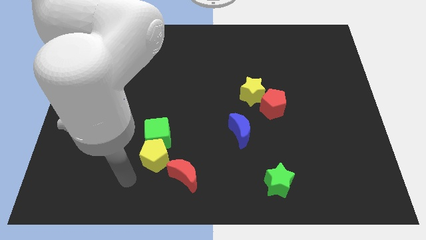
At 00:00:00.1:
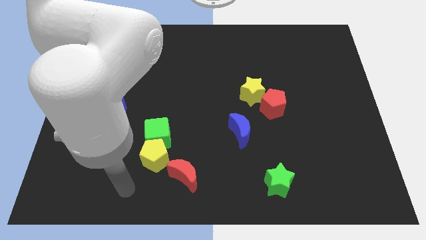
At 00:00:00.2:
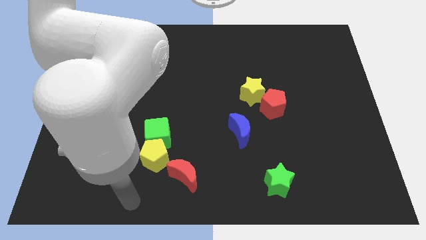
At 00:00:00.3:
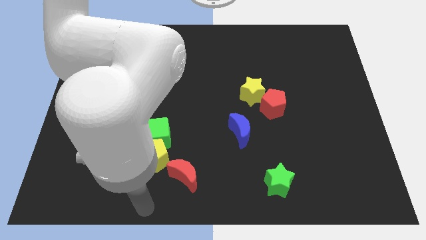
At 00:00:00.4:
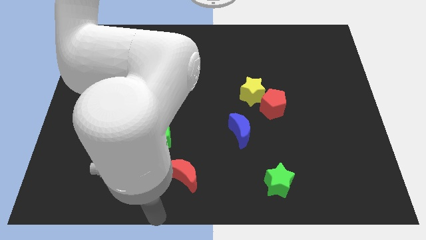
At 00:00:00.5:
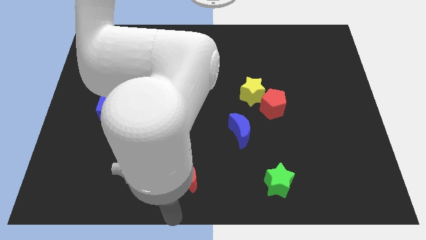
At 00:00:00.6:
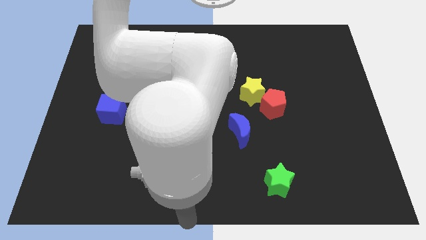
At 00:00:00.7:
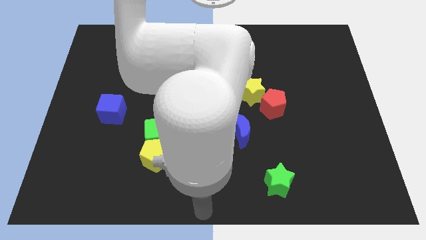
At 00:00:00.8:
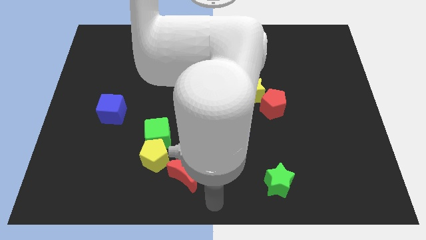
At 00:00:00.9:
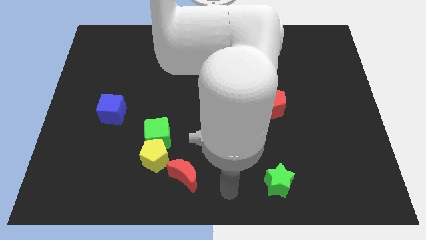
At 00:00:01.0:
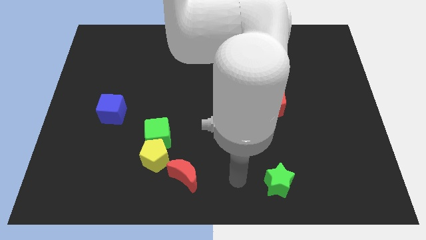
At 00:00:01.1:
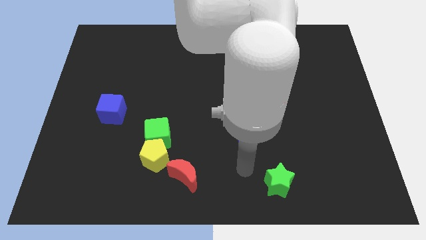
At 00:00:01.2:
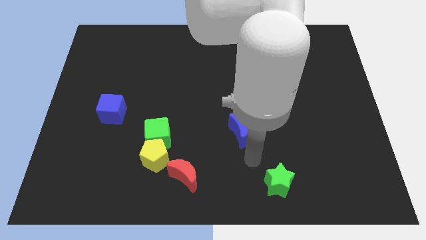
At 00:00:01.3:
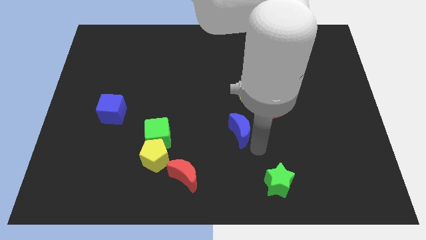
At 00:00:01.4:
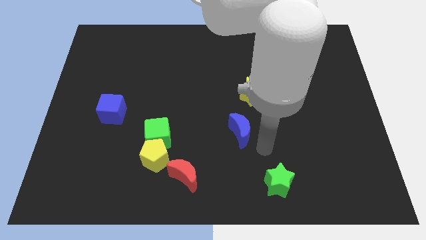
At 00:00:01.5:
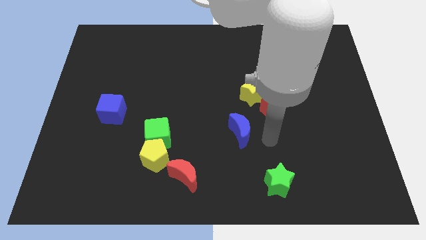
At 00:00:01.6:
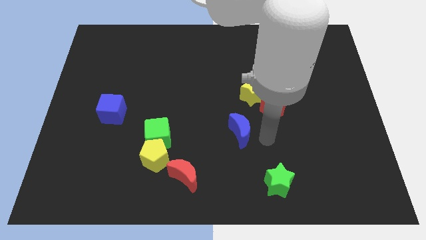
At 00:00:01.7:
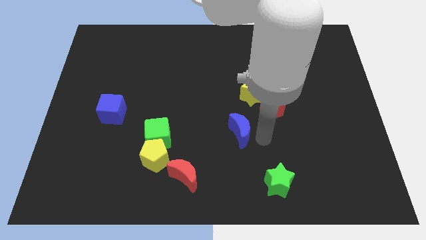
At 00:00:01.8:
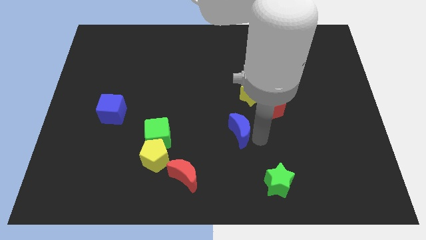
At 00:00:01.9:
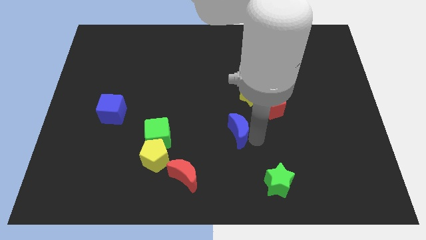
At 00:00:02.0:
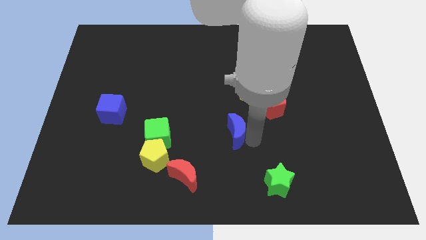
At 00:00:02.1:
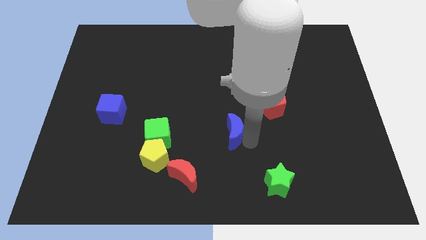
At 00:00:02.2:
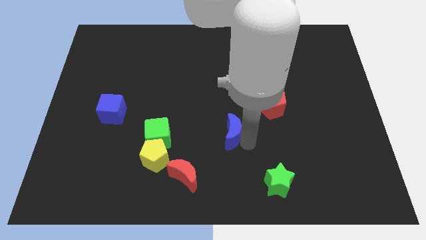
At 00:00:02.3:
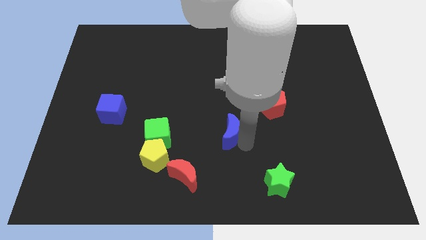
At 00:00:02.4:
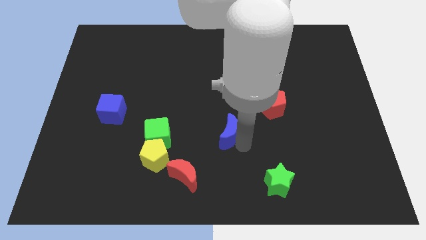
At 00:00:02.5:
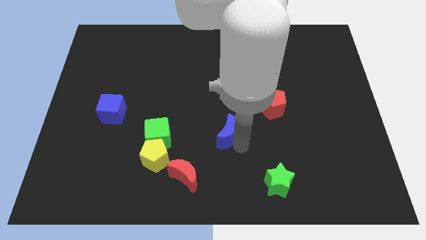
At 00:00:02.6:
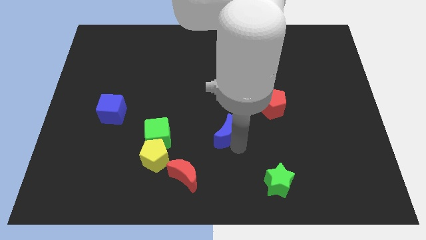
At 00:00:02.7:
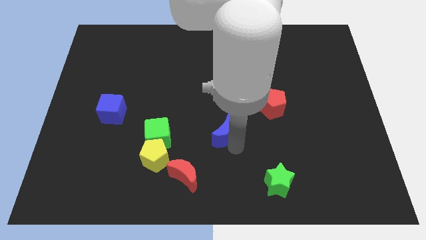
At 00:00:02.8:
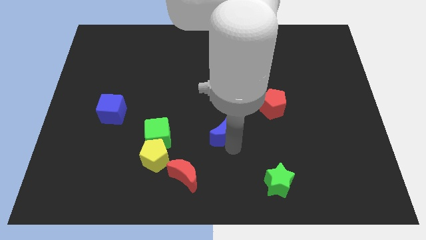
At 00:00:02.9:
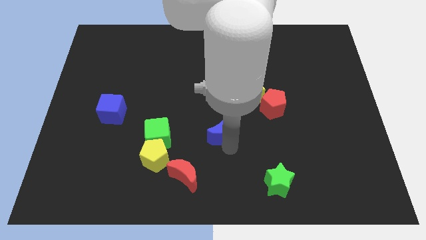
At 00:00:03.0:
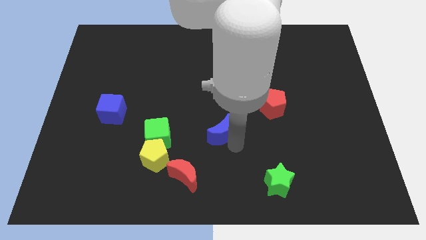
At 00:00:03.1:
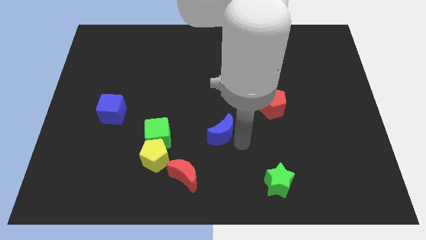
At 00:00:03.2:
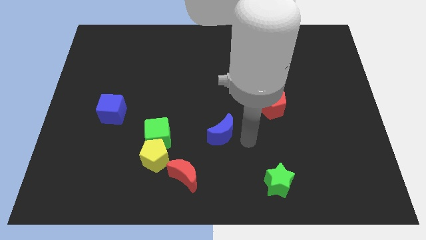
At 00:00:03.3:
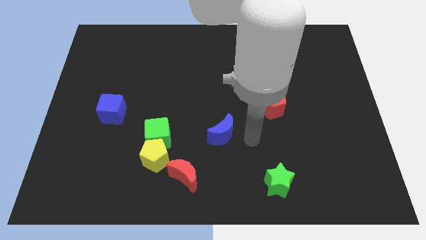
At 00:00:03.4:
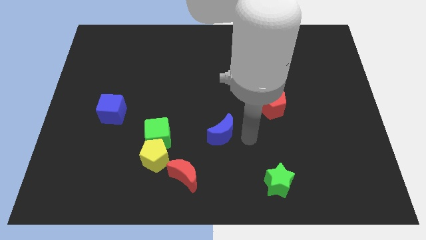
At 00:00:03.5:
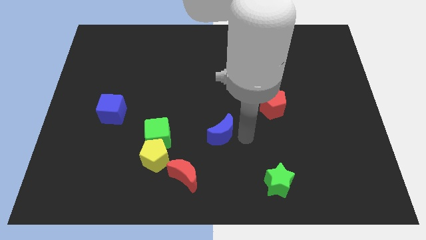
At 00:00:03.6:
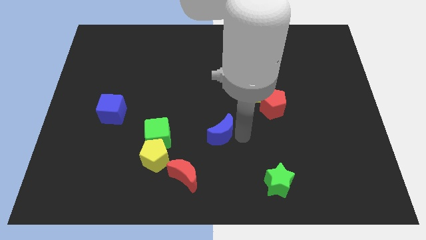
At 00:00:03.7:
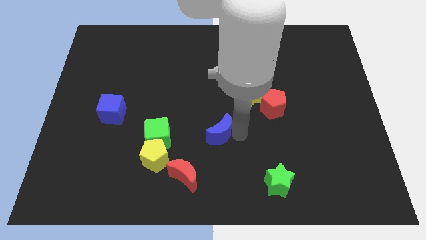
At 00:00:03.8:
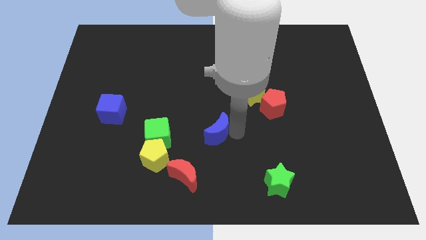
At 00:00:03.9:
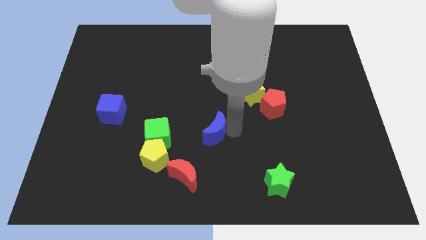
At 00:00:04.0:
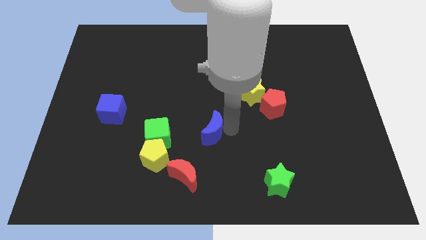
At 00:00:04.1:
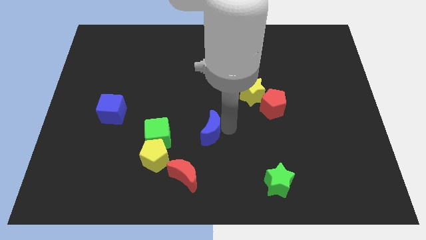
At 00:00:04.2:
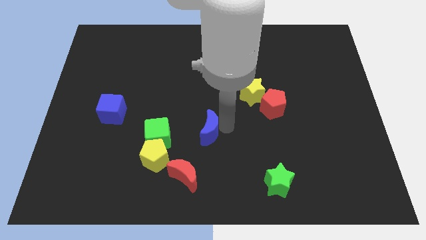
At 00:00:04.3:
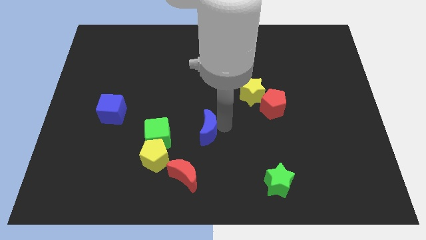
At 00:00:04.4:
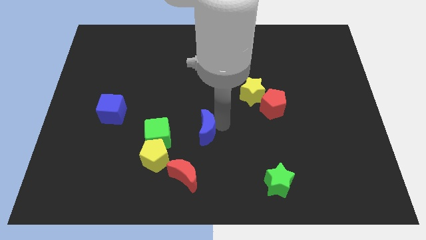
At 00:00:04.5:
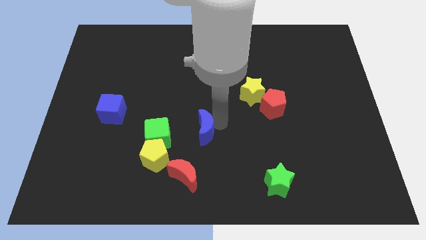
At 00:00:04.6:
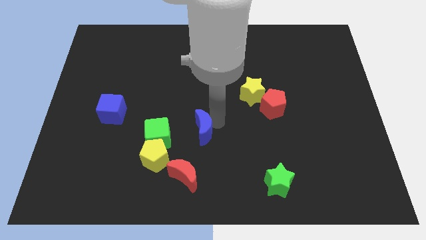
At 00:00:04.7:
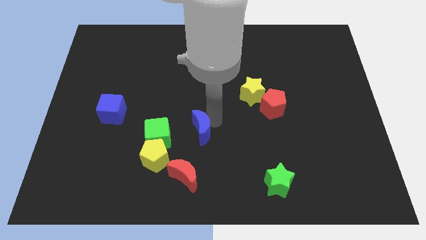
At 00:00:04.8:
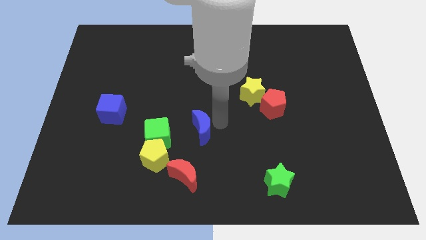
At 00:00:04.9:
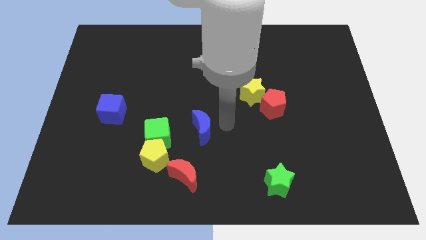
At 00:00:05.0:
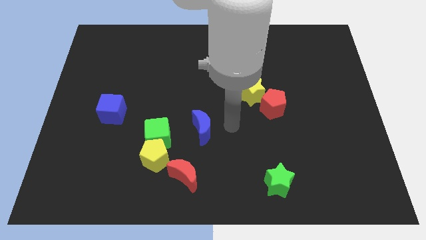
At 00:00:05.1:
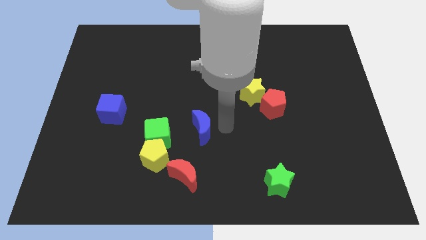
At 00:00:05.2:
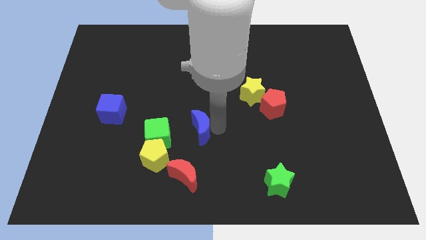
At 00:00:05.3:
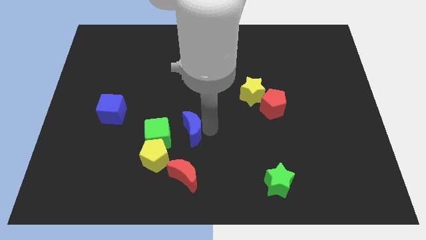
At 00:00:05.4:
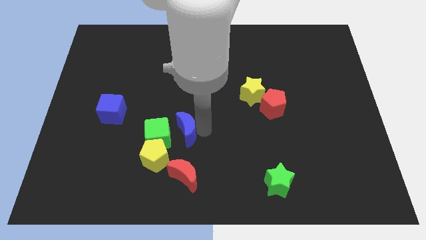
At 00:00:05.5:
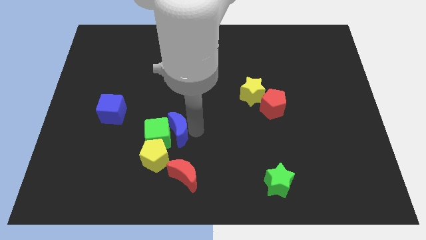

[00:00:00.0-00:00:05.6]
move the blue moon towards the green cube

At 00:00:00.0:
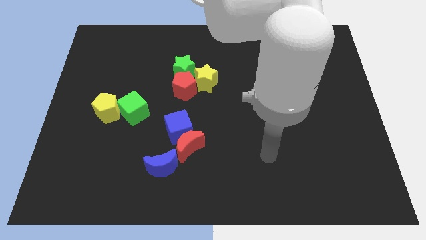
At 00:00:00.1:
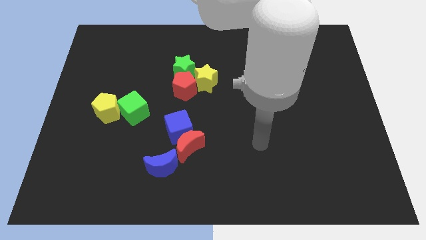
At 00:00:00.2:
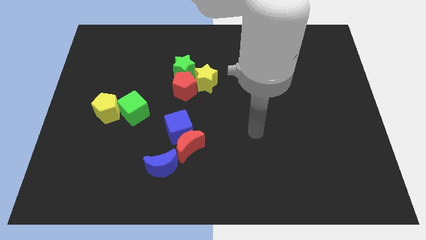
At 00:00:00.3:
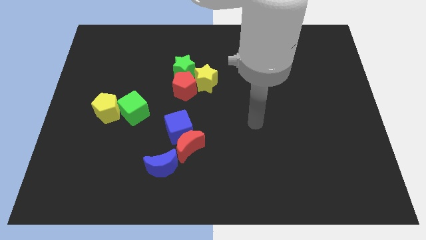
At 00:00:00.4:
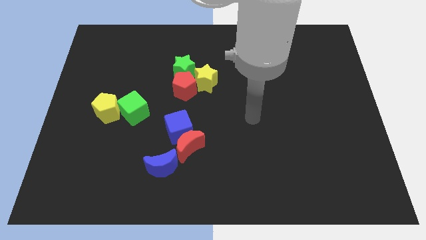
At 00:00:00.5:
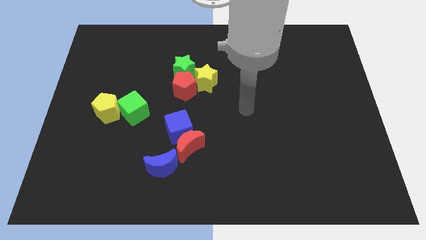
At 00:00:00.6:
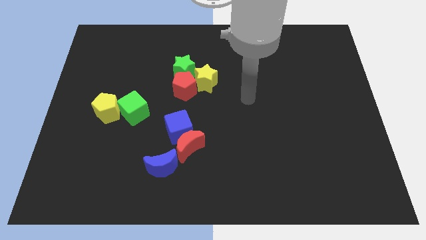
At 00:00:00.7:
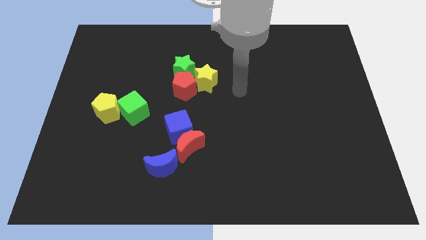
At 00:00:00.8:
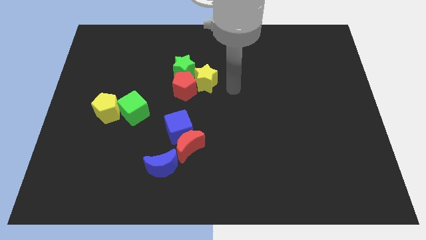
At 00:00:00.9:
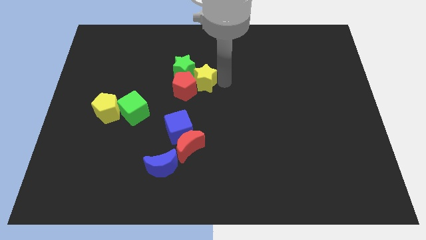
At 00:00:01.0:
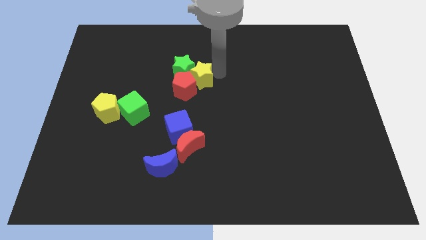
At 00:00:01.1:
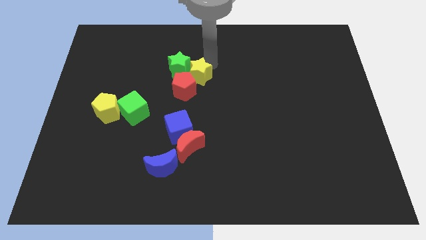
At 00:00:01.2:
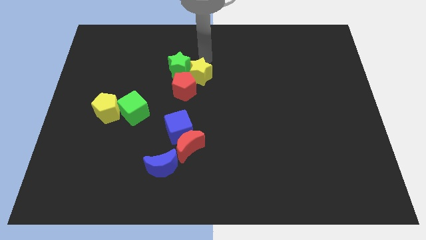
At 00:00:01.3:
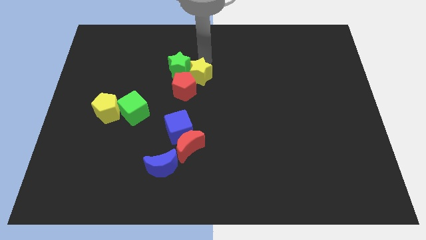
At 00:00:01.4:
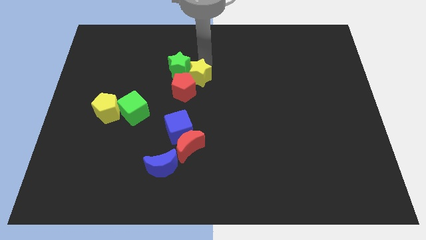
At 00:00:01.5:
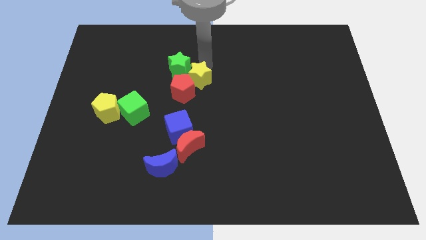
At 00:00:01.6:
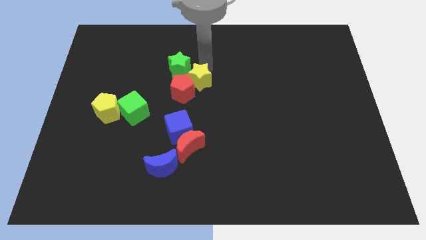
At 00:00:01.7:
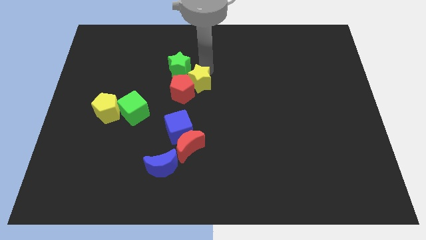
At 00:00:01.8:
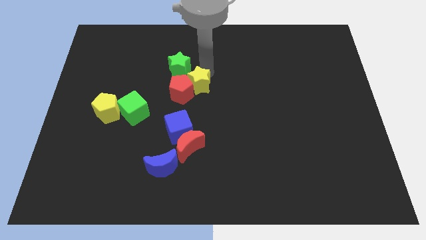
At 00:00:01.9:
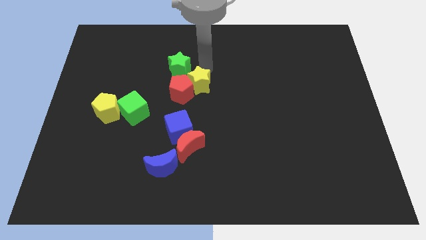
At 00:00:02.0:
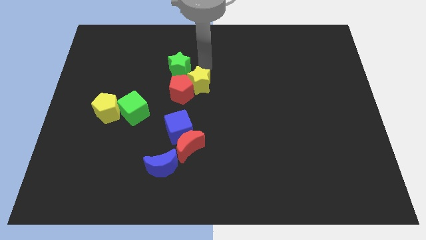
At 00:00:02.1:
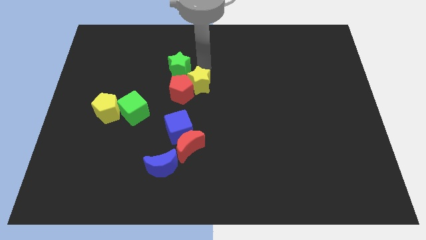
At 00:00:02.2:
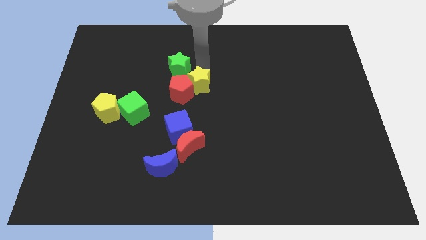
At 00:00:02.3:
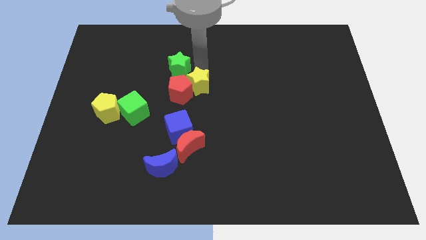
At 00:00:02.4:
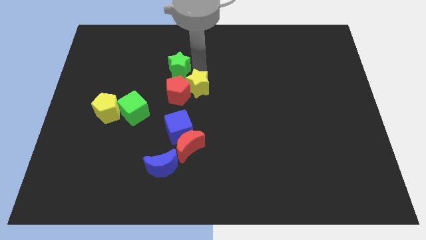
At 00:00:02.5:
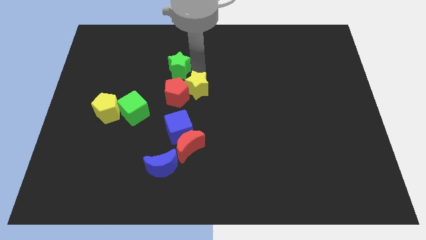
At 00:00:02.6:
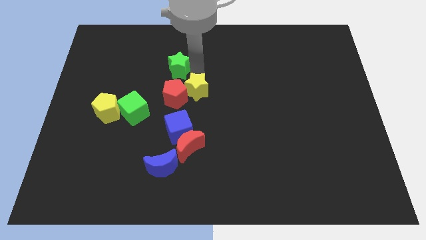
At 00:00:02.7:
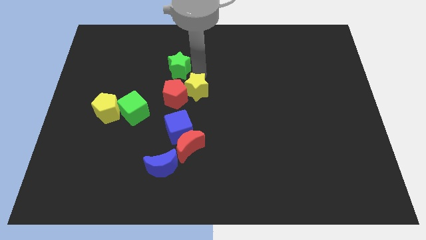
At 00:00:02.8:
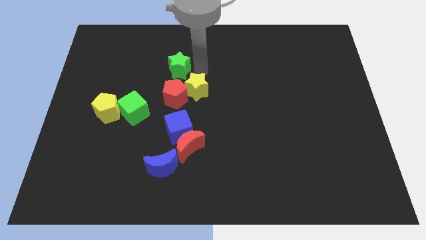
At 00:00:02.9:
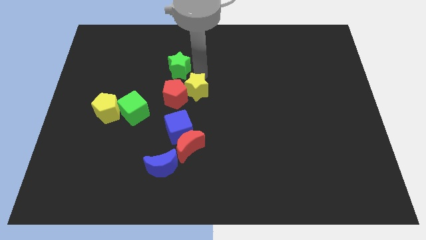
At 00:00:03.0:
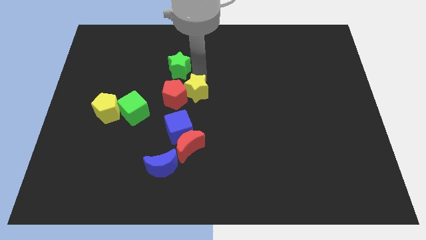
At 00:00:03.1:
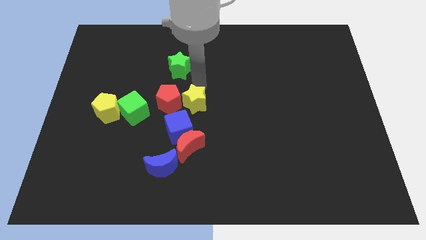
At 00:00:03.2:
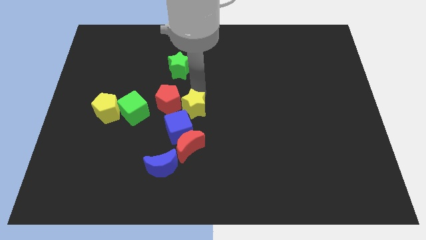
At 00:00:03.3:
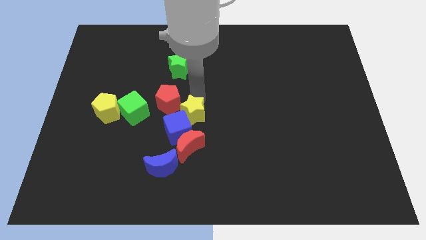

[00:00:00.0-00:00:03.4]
slide the yellow star next to the blue cube
